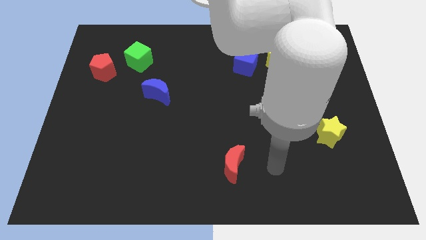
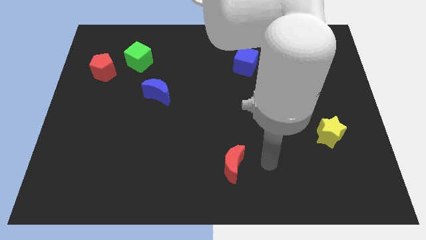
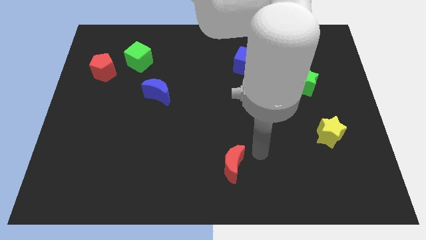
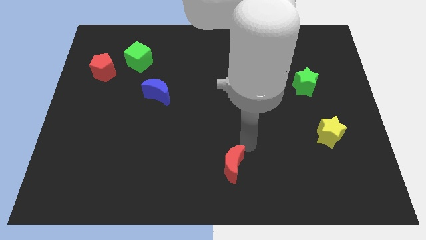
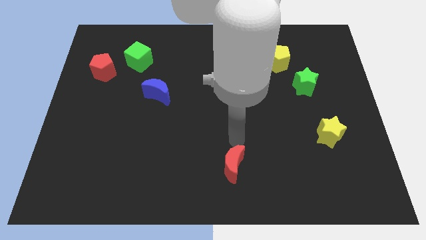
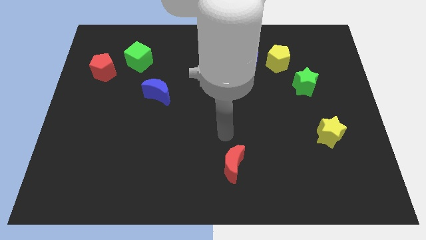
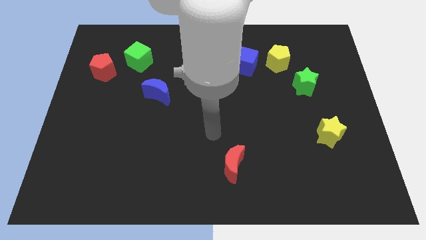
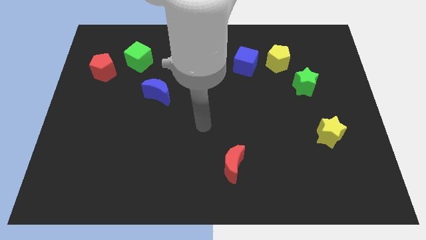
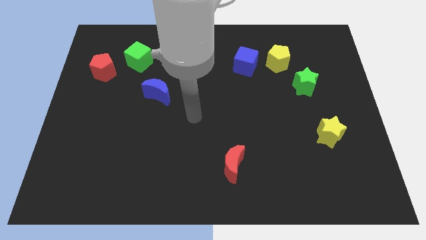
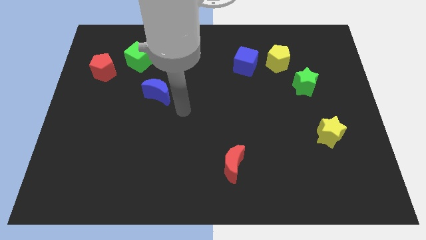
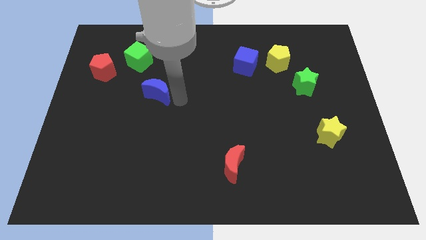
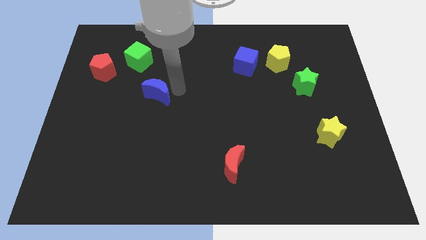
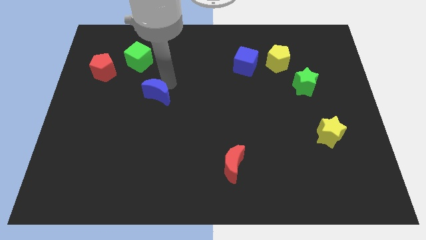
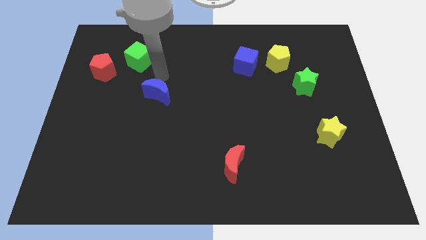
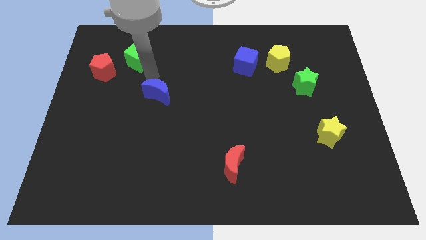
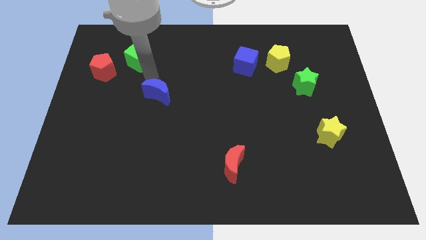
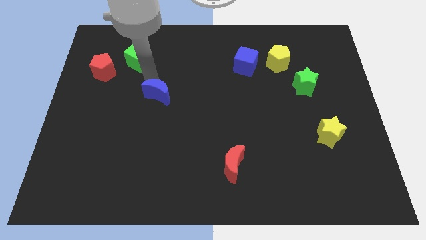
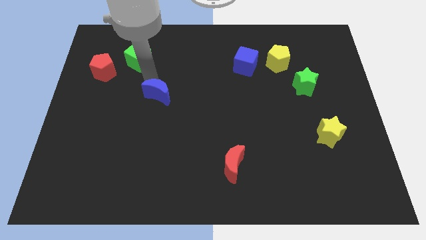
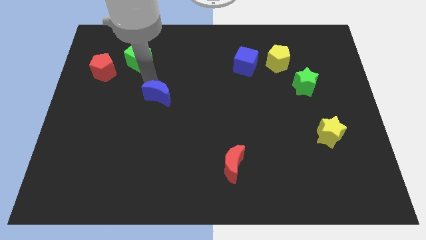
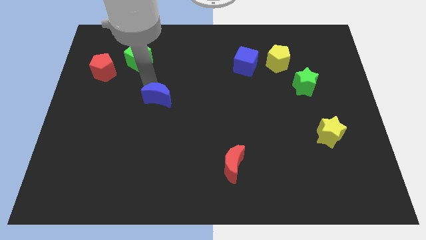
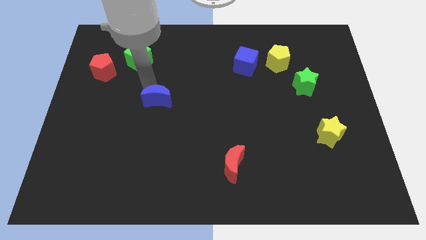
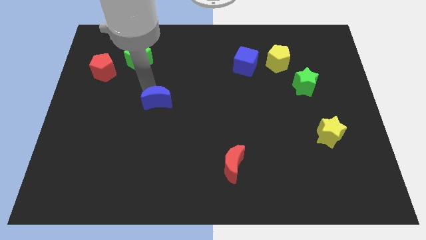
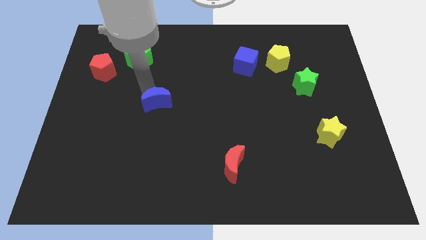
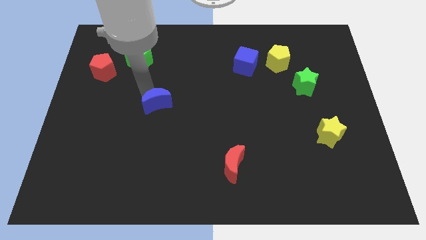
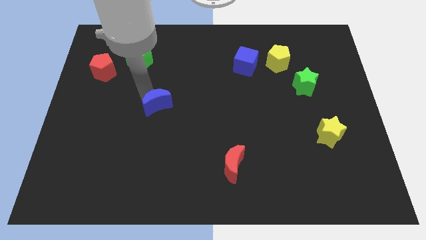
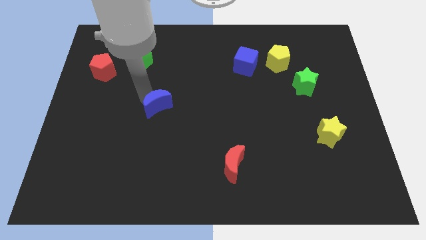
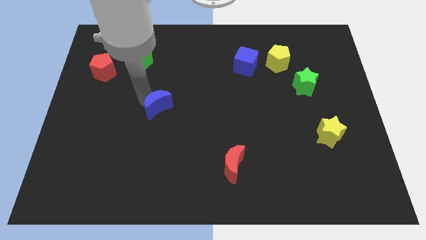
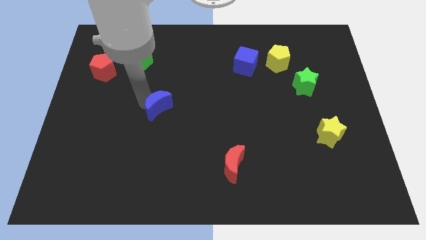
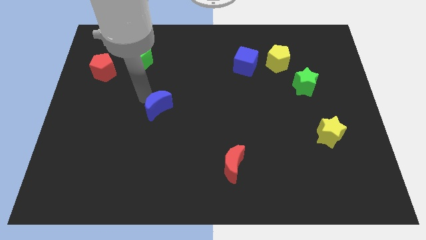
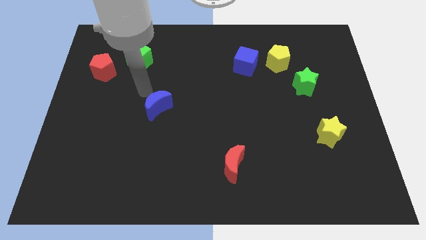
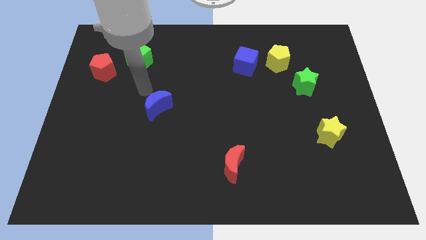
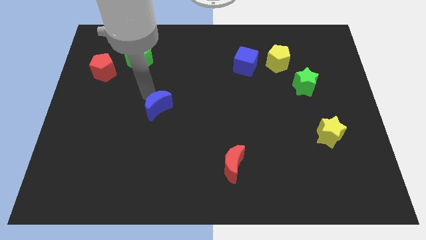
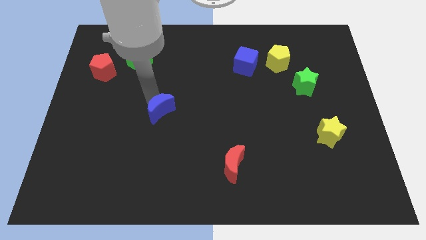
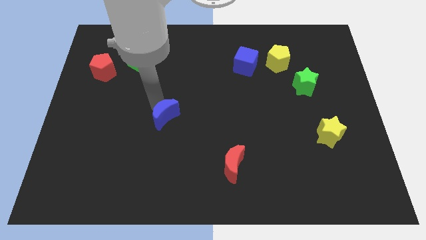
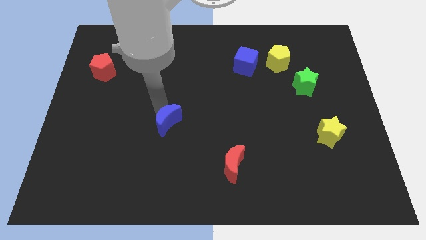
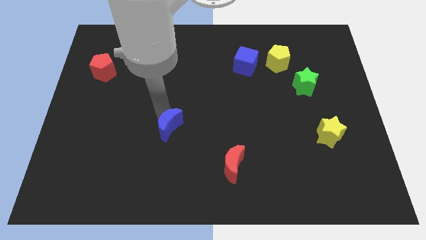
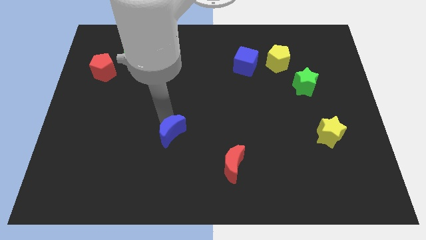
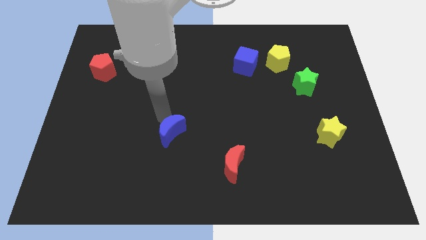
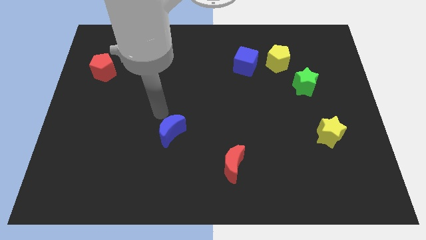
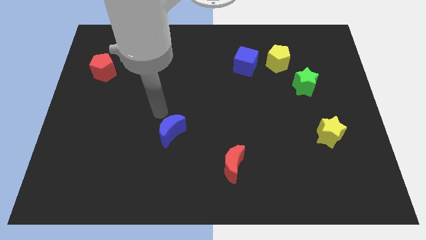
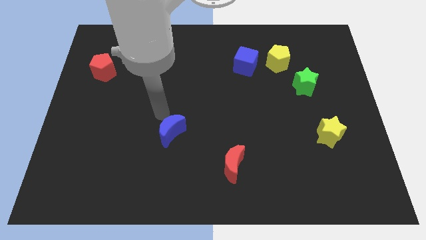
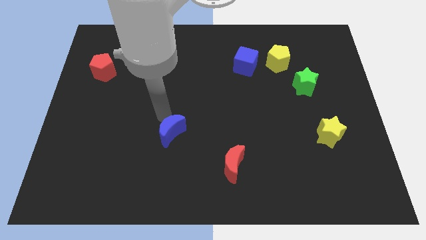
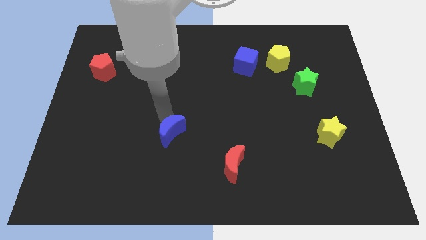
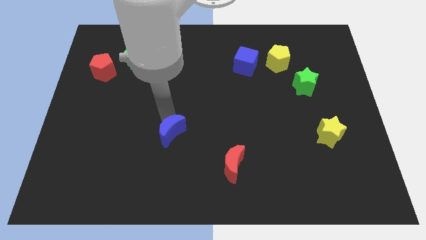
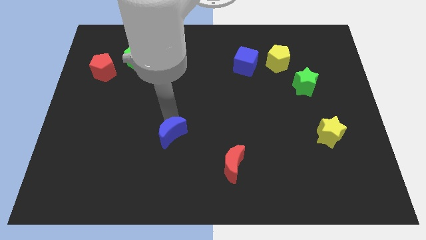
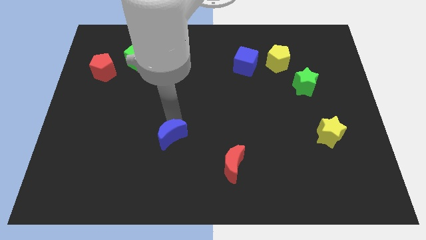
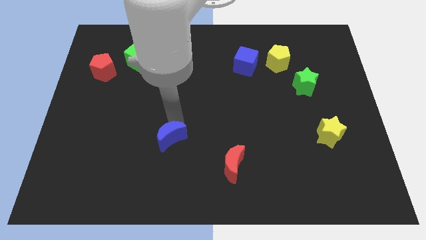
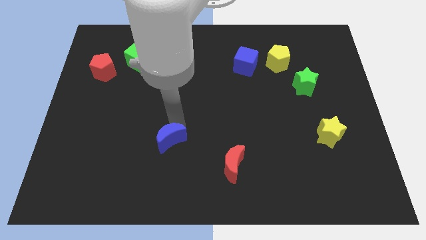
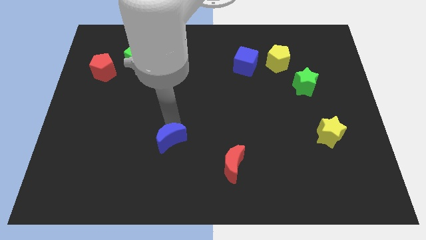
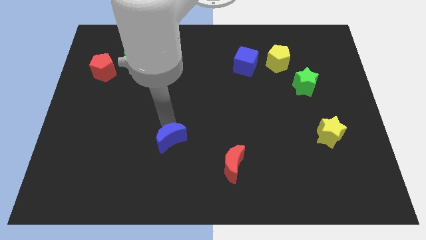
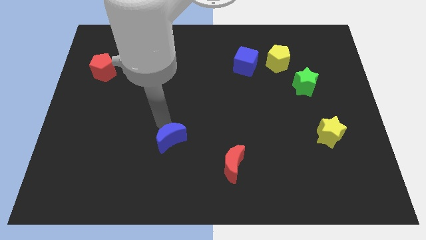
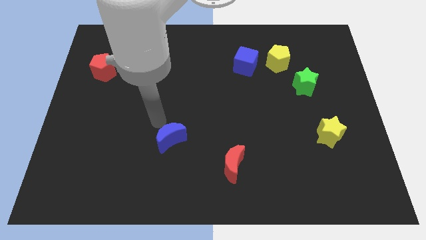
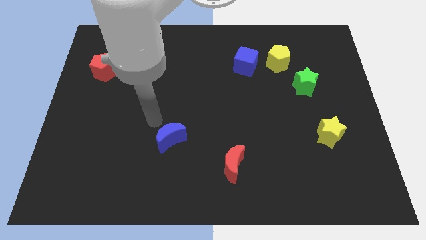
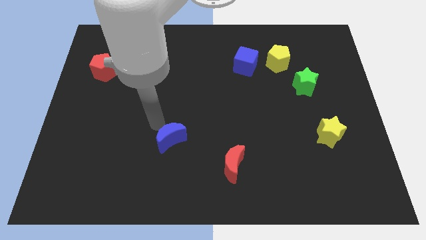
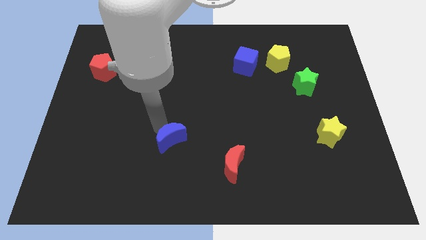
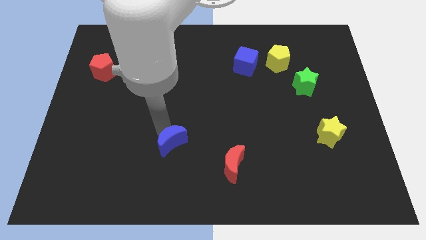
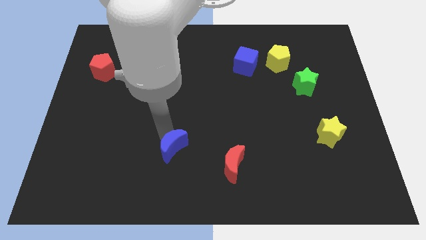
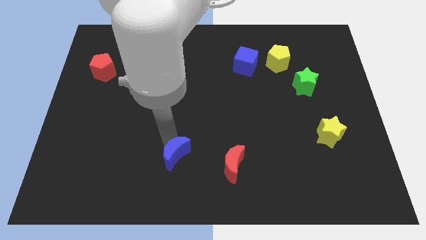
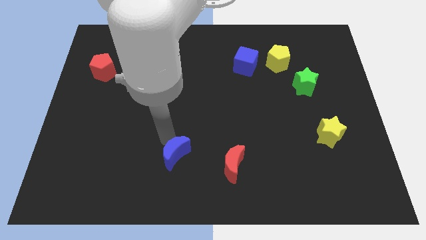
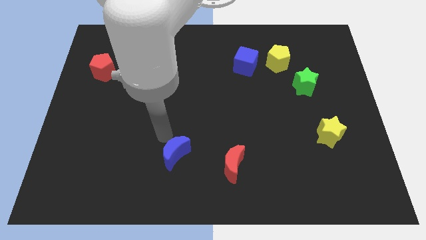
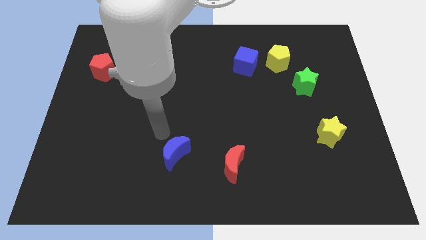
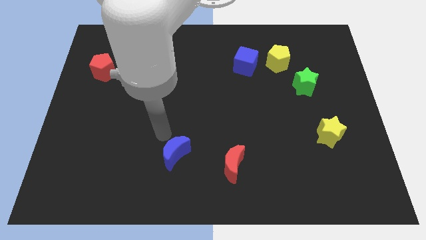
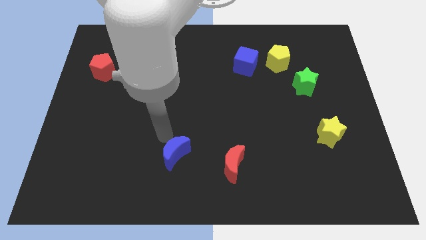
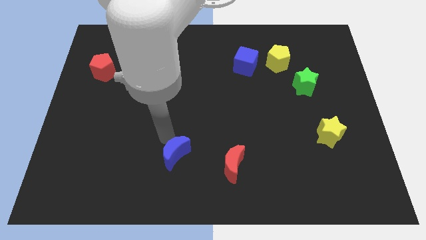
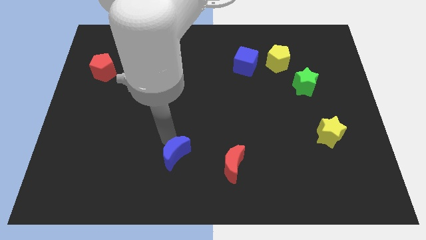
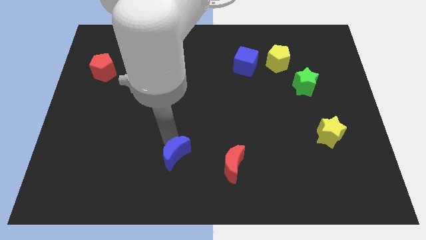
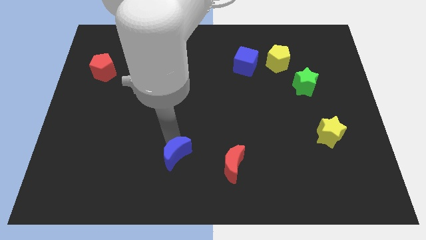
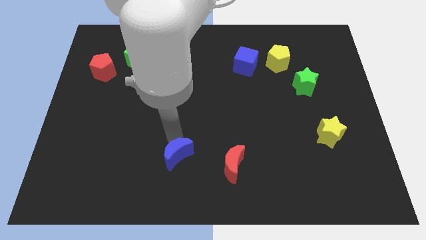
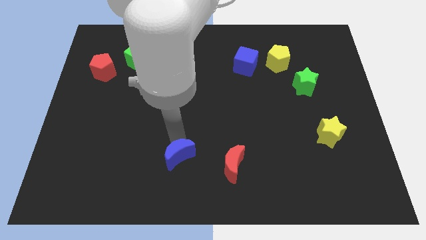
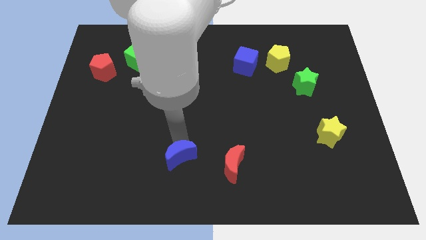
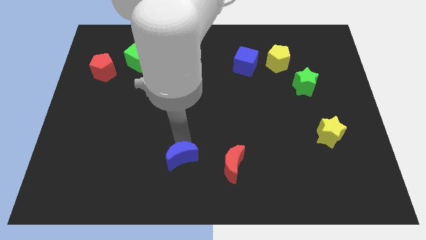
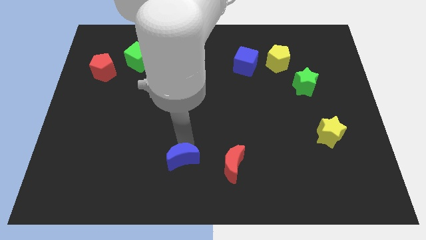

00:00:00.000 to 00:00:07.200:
put the blue moon to the bottom
